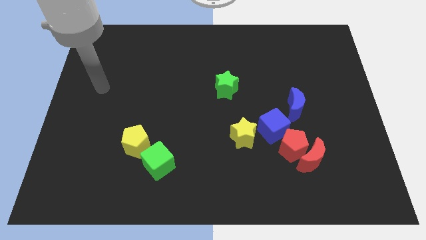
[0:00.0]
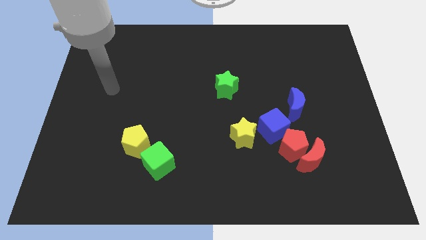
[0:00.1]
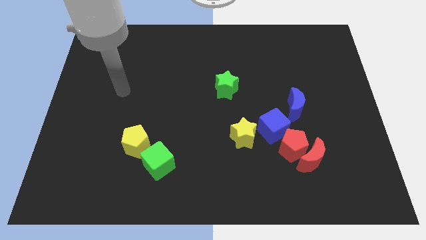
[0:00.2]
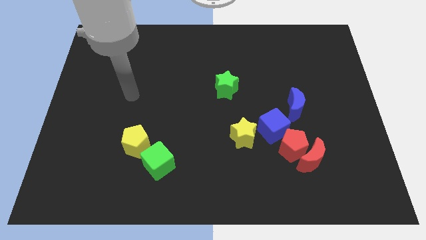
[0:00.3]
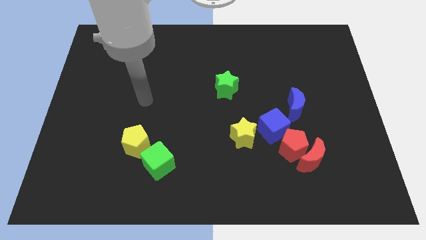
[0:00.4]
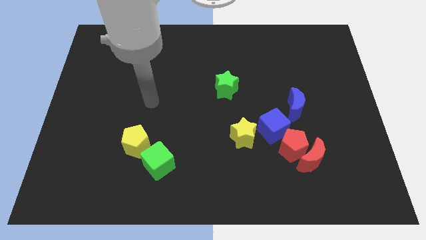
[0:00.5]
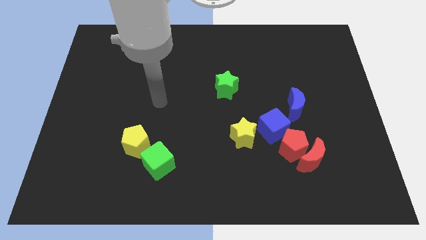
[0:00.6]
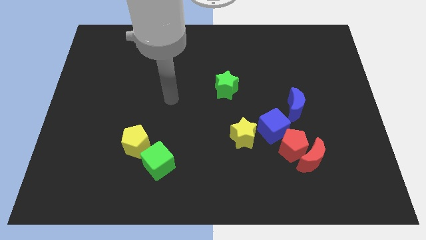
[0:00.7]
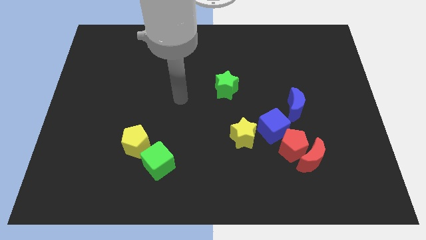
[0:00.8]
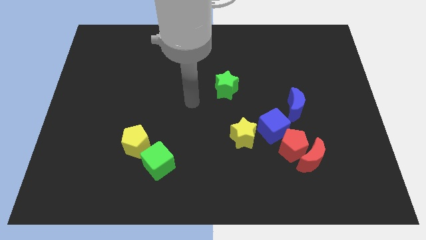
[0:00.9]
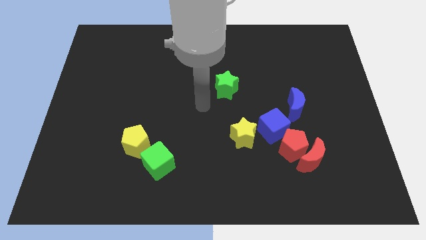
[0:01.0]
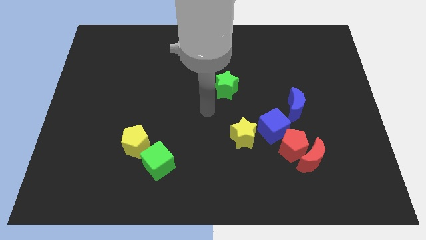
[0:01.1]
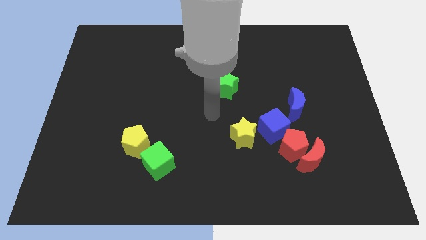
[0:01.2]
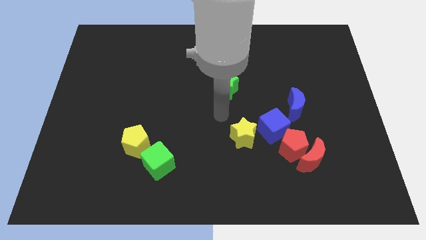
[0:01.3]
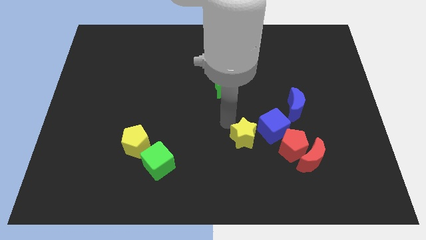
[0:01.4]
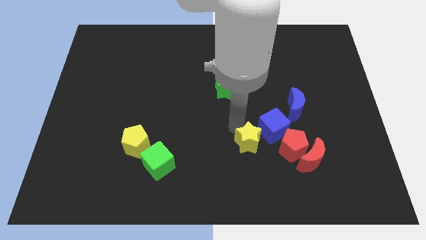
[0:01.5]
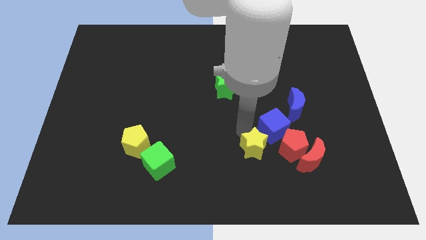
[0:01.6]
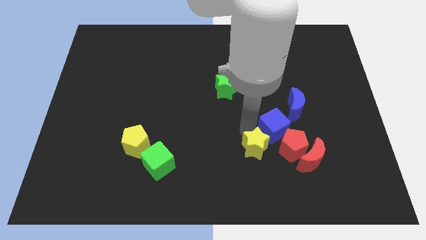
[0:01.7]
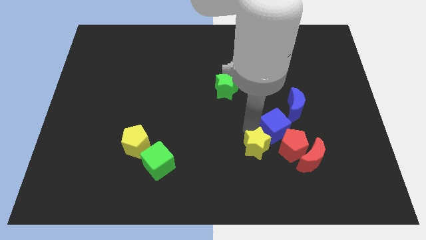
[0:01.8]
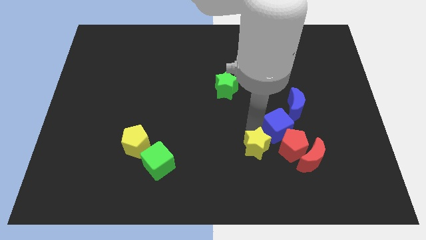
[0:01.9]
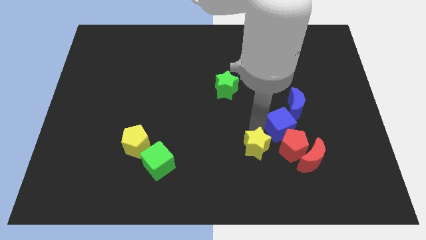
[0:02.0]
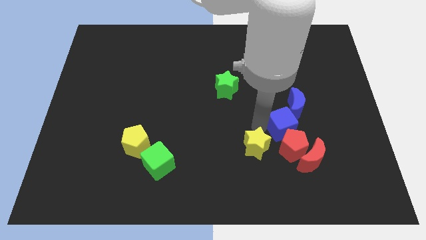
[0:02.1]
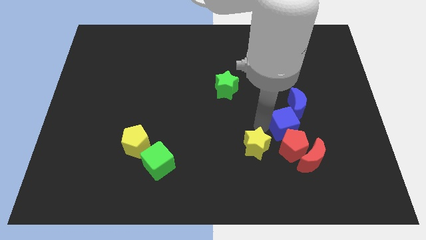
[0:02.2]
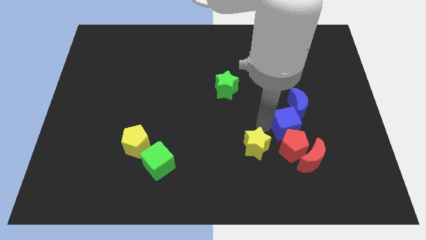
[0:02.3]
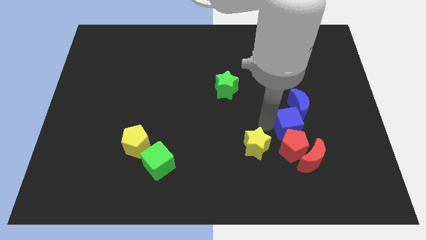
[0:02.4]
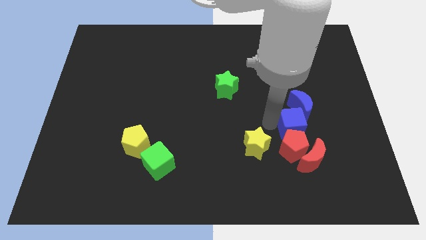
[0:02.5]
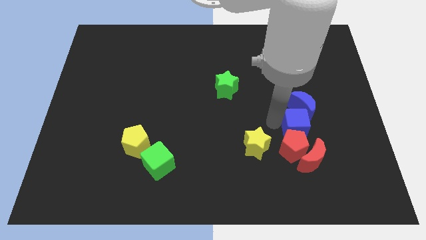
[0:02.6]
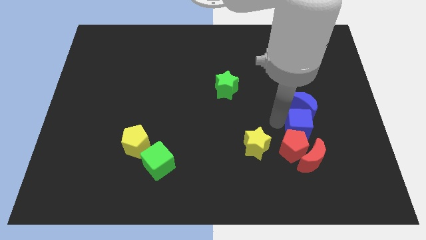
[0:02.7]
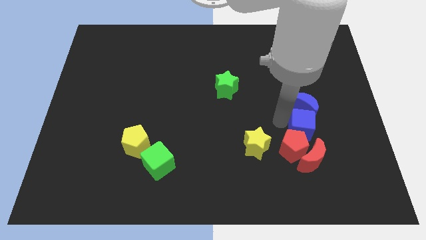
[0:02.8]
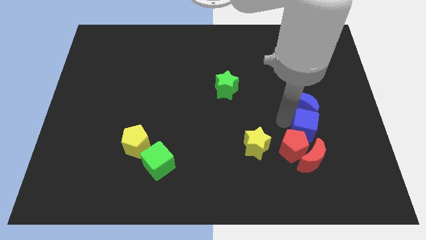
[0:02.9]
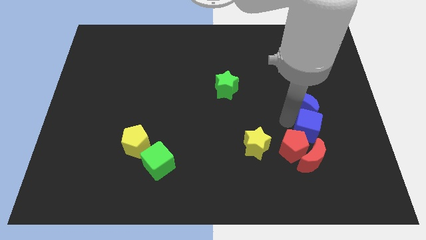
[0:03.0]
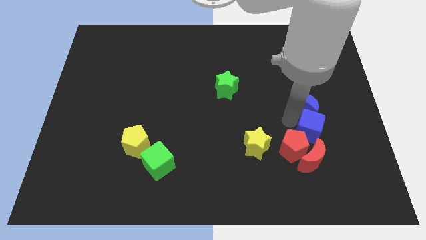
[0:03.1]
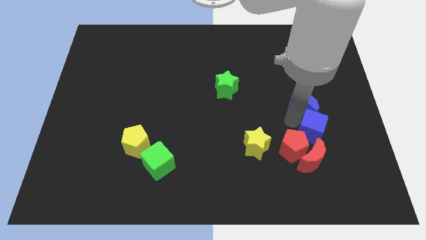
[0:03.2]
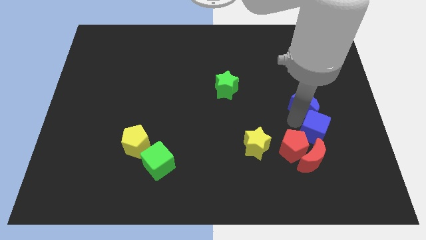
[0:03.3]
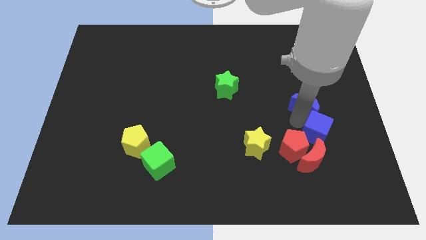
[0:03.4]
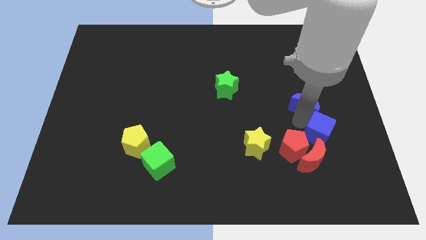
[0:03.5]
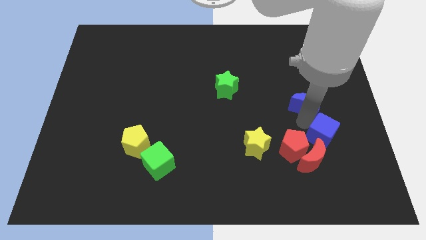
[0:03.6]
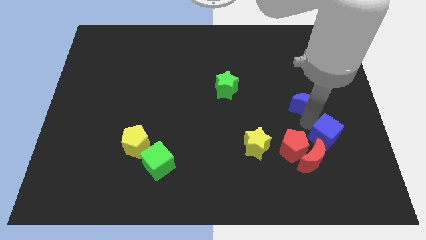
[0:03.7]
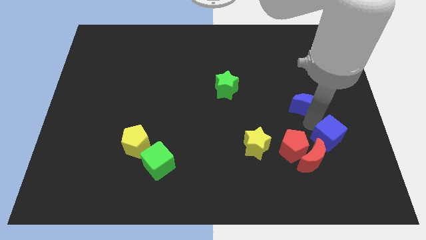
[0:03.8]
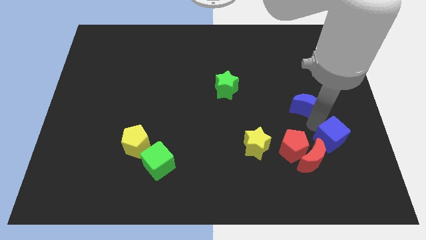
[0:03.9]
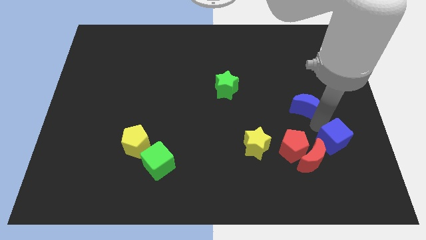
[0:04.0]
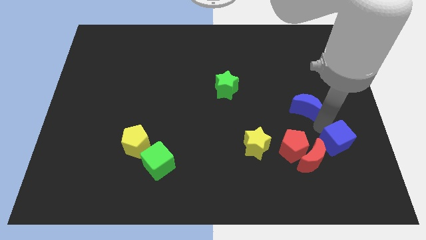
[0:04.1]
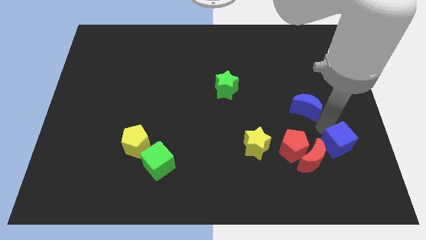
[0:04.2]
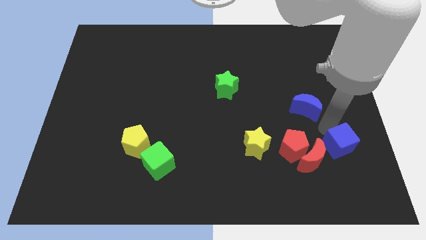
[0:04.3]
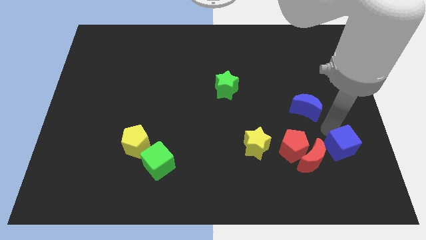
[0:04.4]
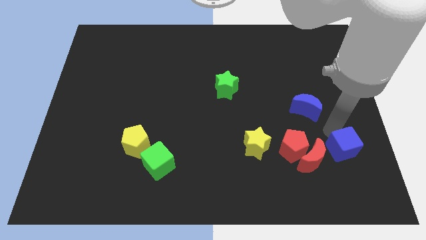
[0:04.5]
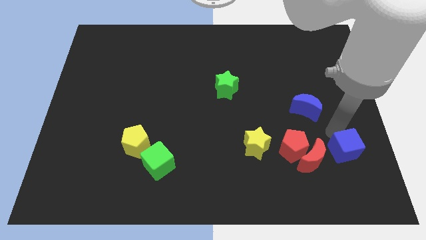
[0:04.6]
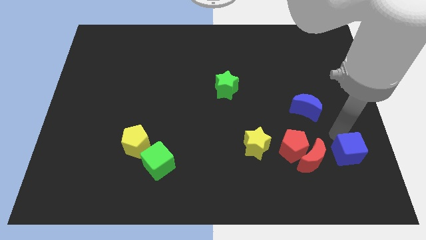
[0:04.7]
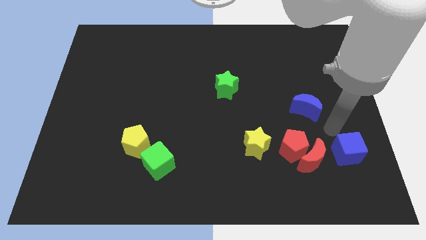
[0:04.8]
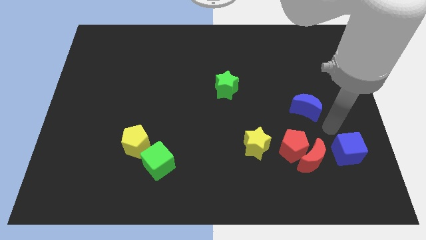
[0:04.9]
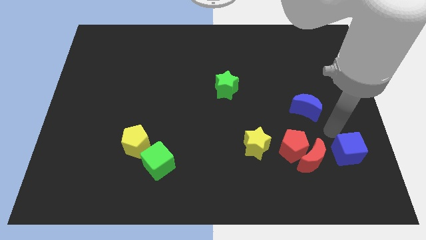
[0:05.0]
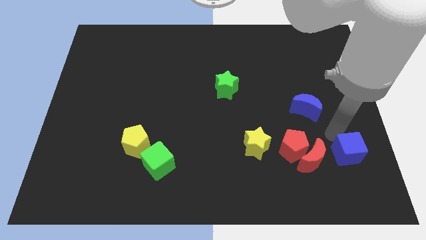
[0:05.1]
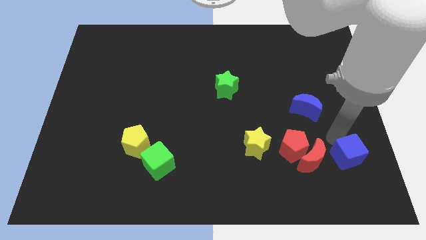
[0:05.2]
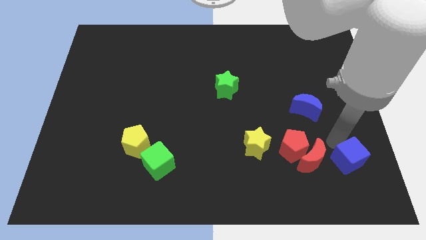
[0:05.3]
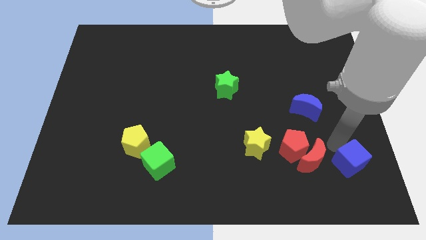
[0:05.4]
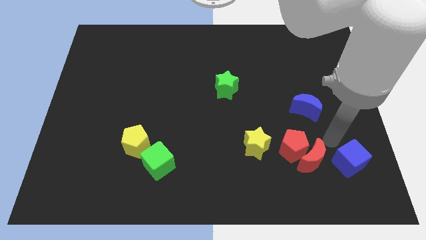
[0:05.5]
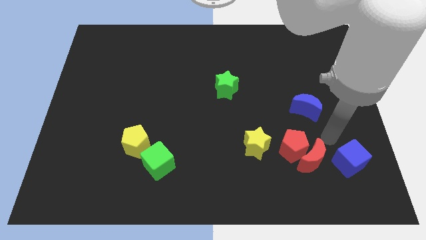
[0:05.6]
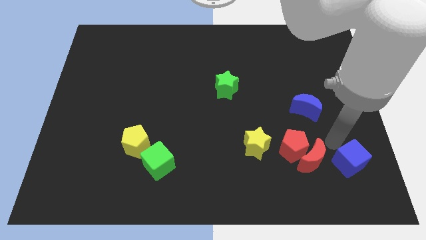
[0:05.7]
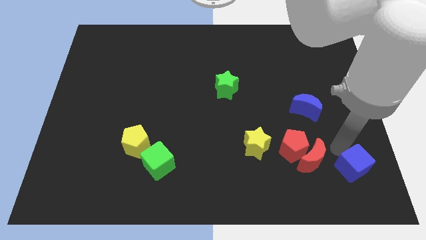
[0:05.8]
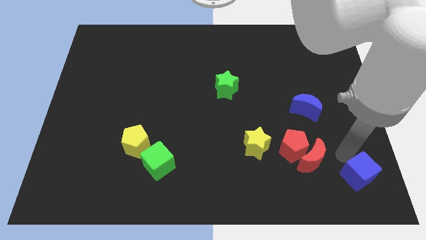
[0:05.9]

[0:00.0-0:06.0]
slide the blue cube to the bottom right corner
